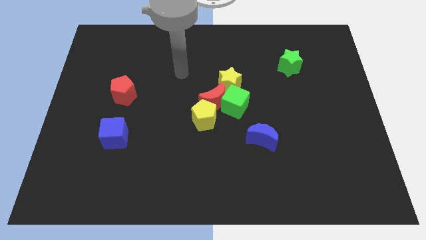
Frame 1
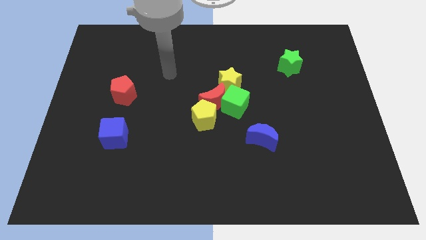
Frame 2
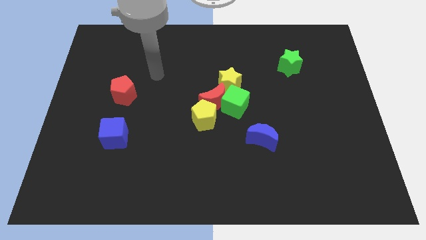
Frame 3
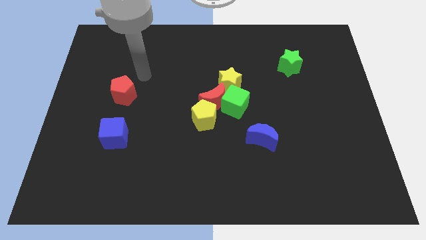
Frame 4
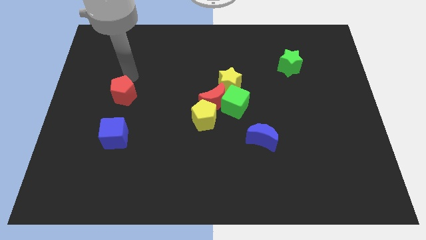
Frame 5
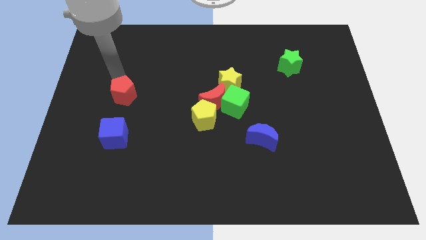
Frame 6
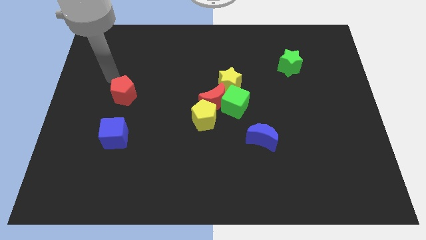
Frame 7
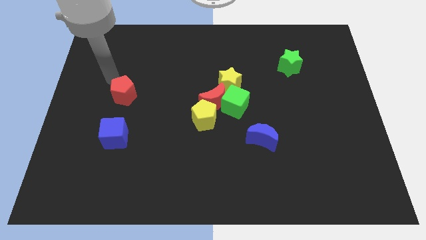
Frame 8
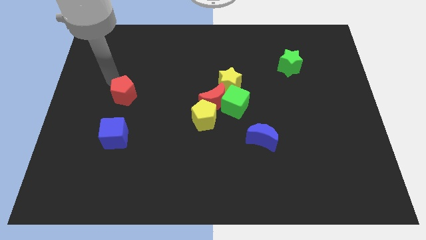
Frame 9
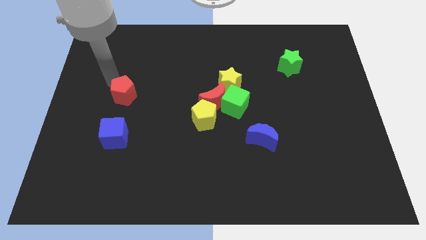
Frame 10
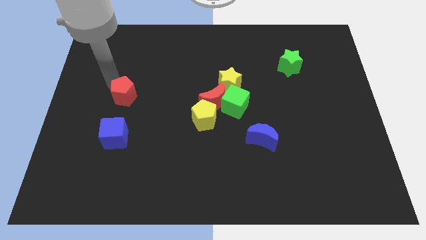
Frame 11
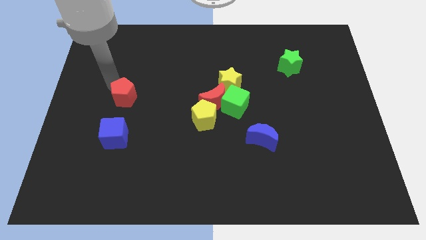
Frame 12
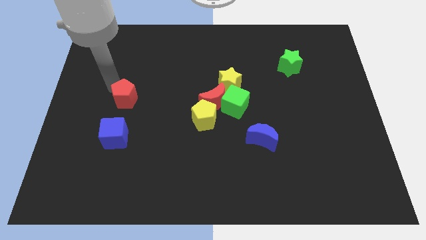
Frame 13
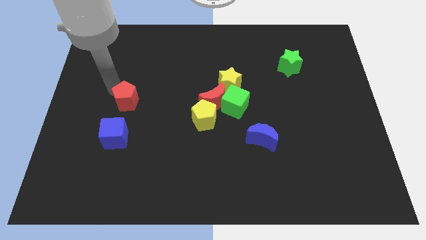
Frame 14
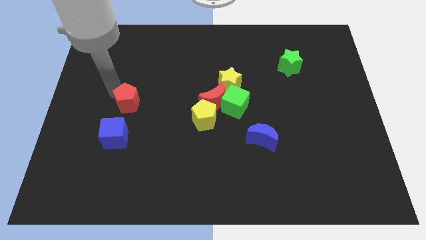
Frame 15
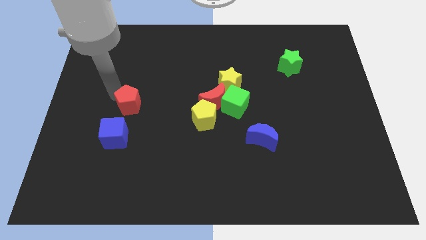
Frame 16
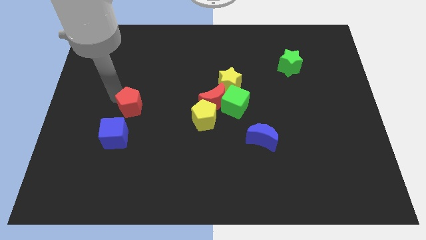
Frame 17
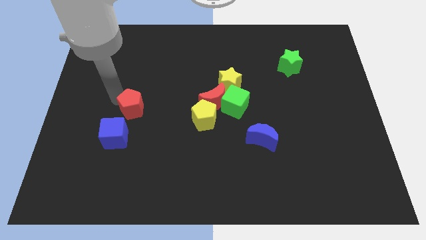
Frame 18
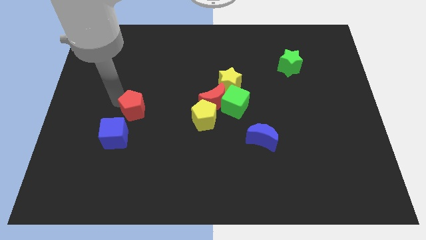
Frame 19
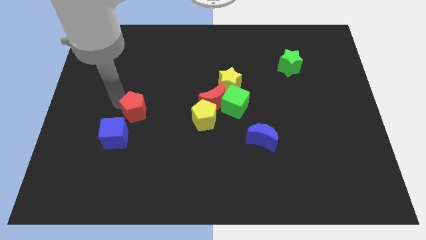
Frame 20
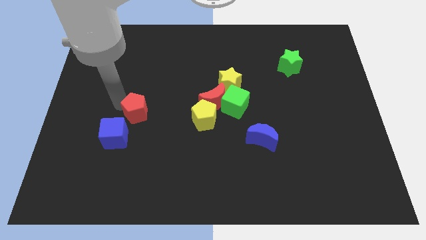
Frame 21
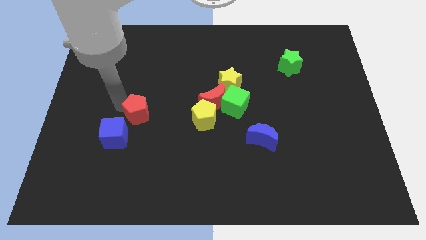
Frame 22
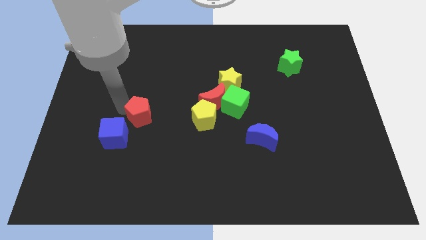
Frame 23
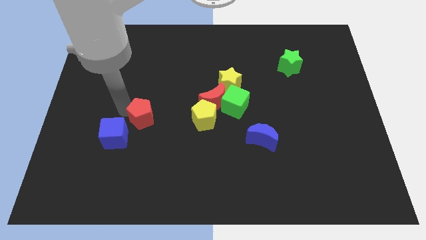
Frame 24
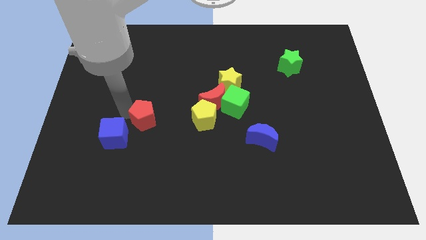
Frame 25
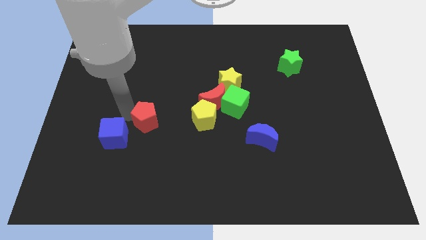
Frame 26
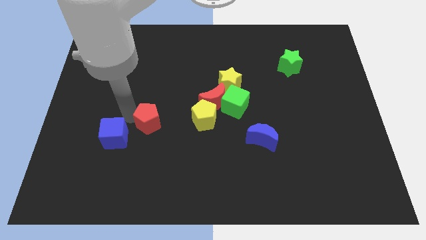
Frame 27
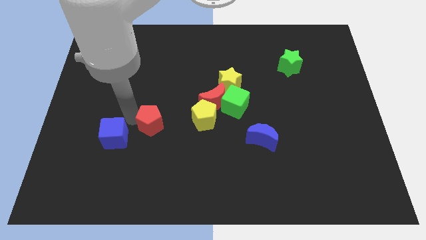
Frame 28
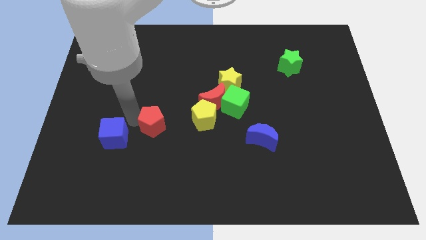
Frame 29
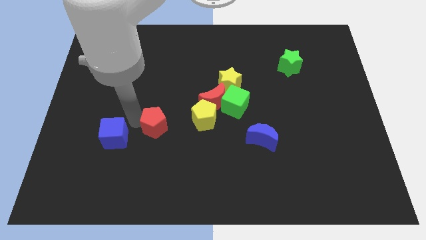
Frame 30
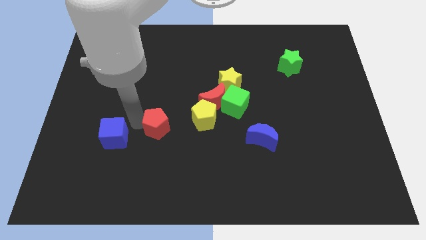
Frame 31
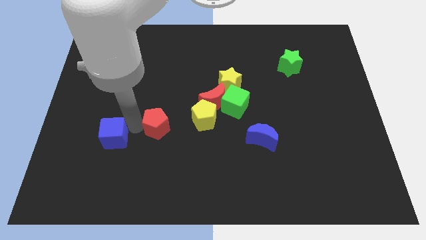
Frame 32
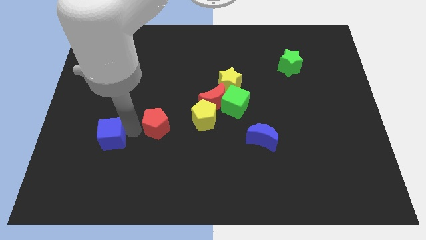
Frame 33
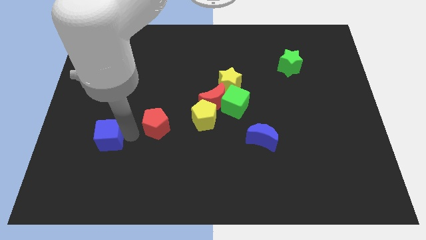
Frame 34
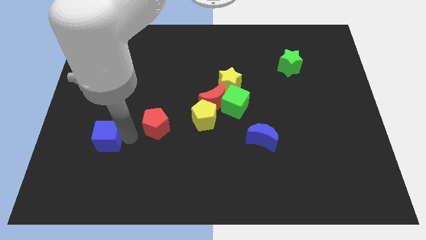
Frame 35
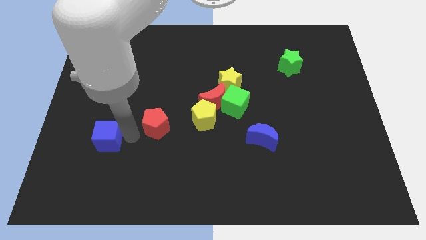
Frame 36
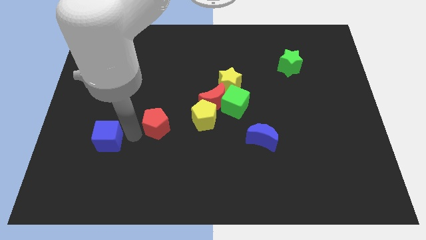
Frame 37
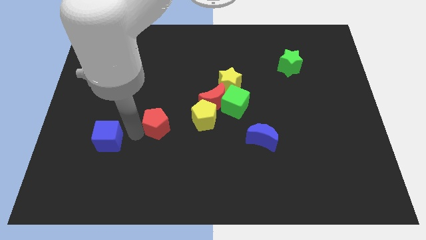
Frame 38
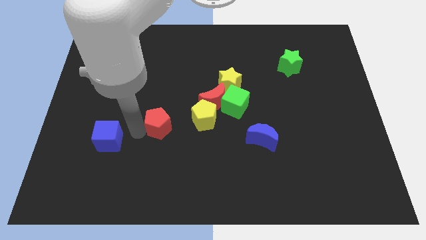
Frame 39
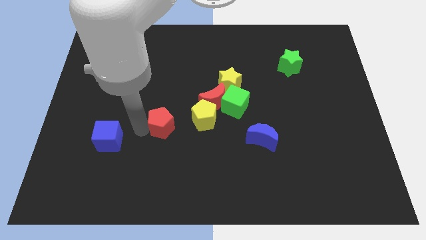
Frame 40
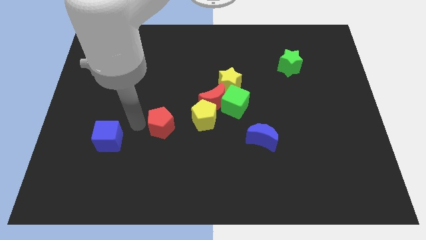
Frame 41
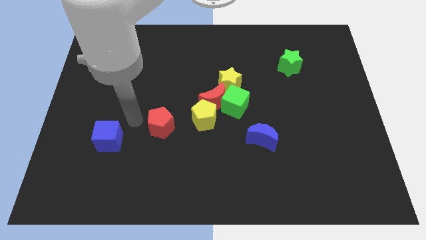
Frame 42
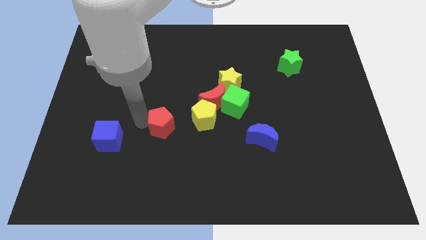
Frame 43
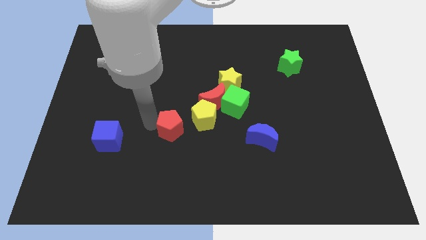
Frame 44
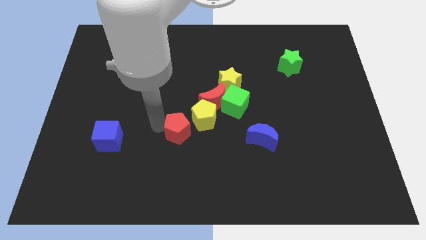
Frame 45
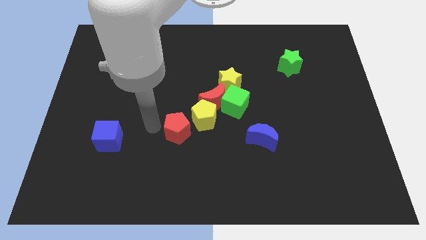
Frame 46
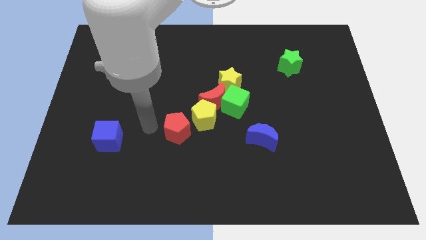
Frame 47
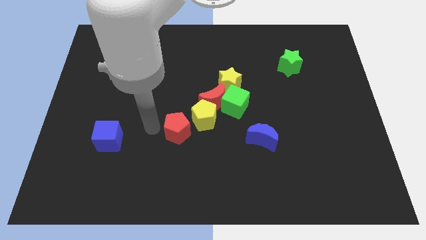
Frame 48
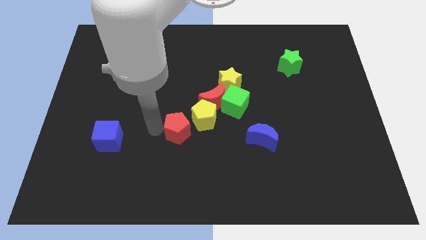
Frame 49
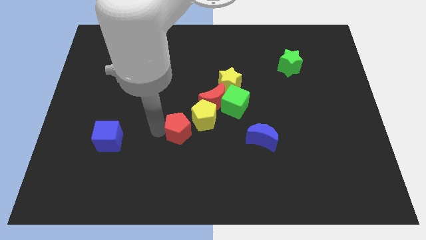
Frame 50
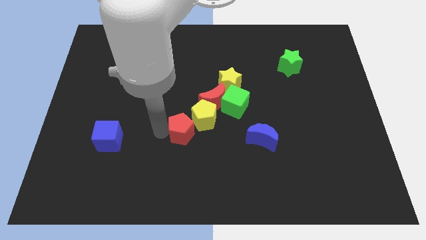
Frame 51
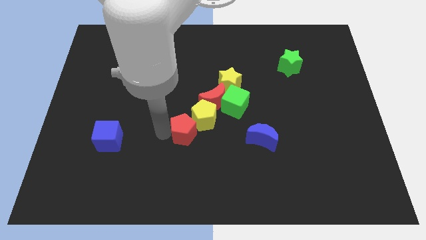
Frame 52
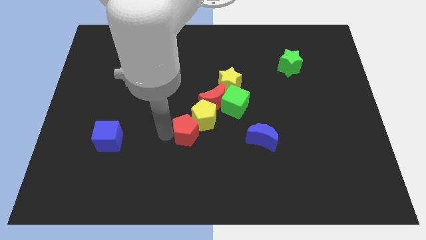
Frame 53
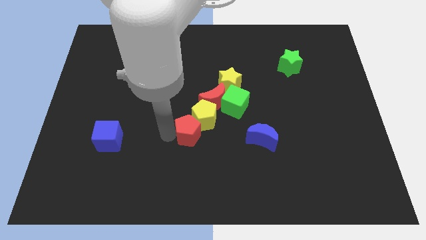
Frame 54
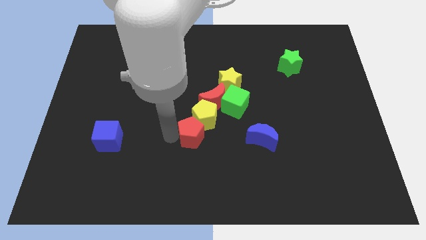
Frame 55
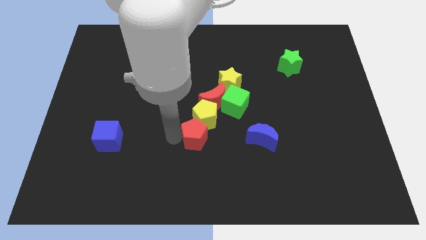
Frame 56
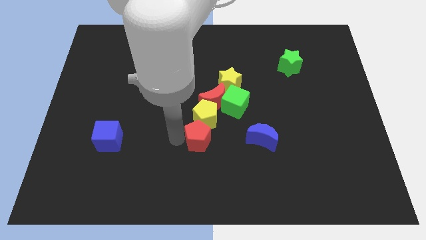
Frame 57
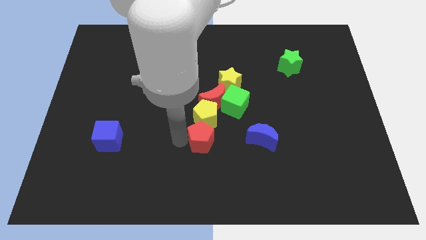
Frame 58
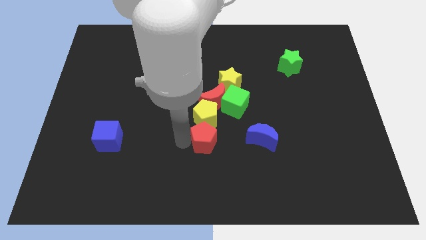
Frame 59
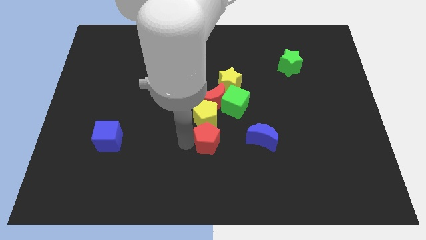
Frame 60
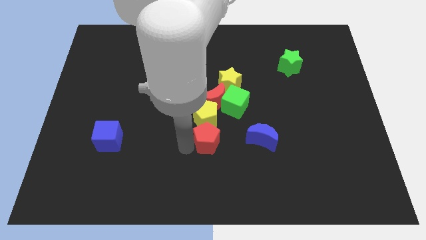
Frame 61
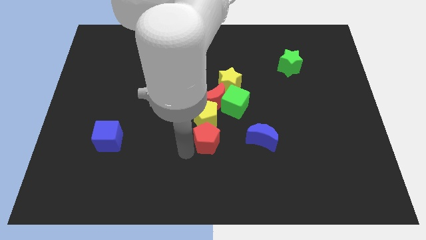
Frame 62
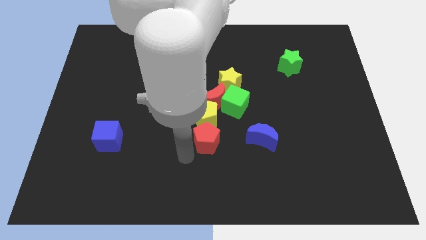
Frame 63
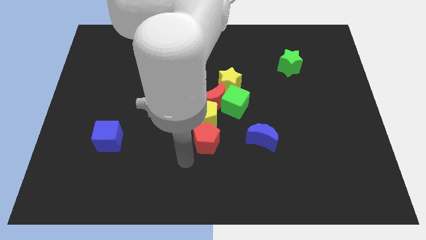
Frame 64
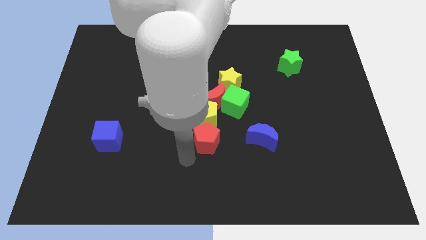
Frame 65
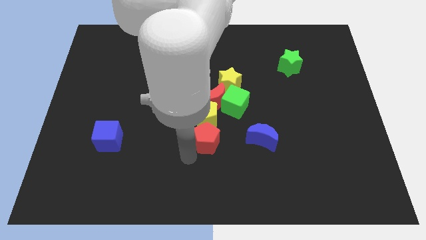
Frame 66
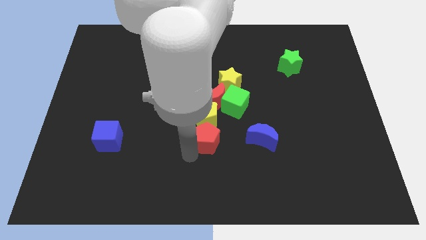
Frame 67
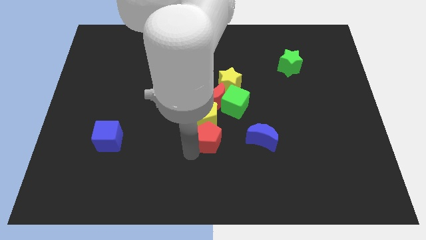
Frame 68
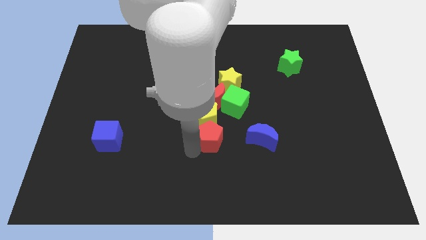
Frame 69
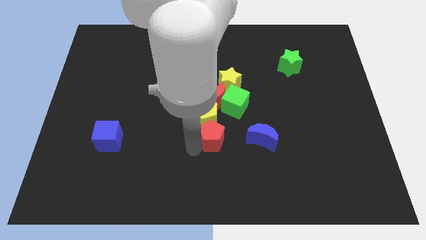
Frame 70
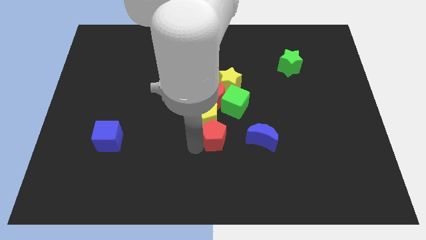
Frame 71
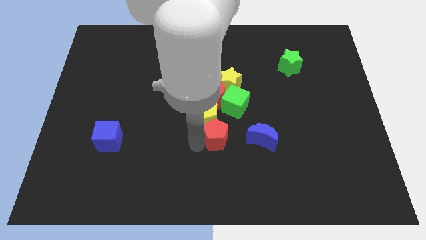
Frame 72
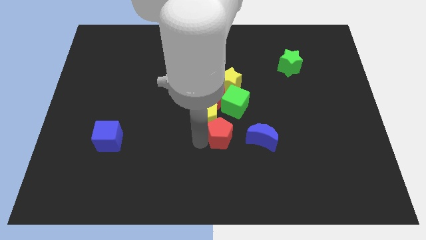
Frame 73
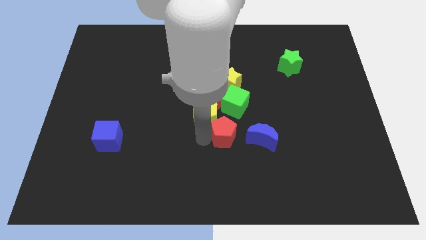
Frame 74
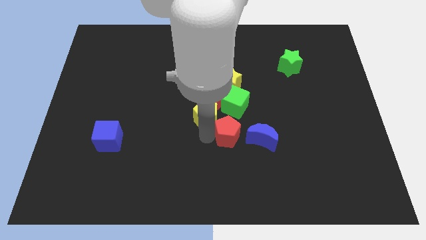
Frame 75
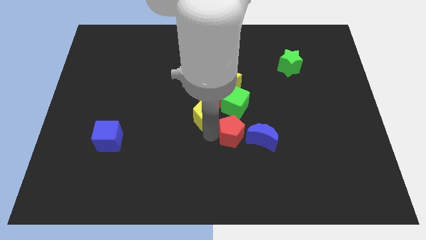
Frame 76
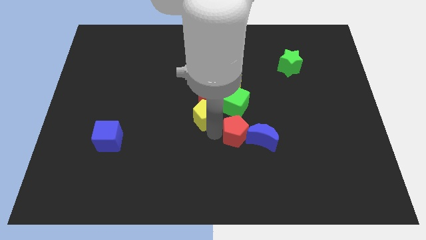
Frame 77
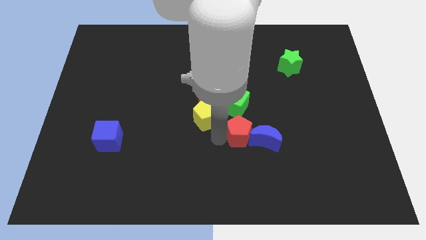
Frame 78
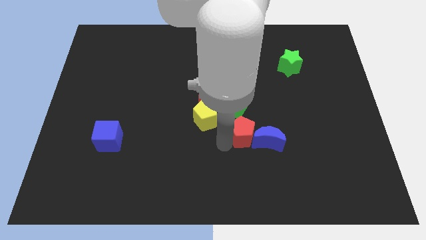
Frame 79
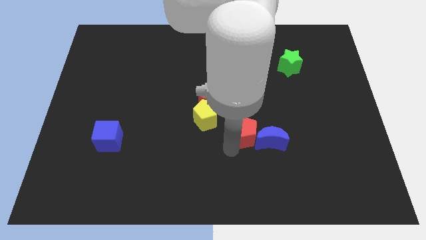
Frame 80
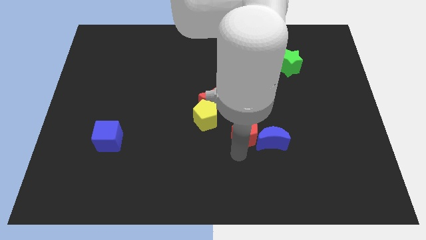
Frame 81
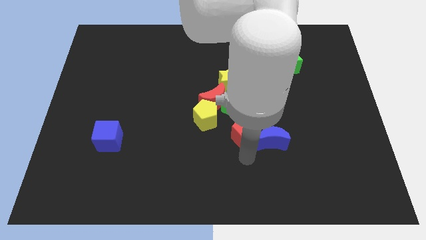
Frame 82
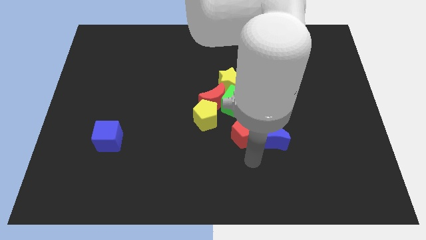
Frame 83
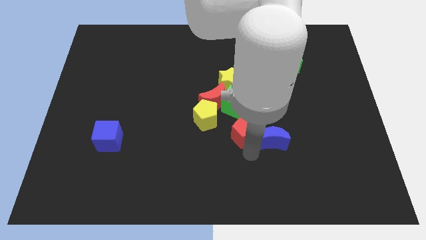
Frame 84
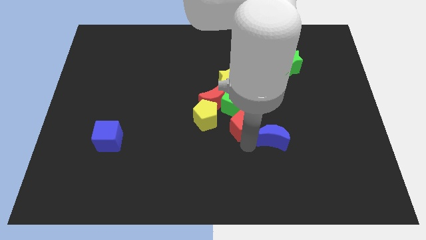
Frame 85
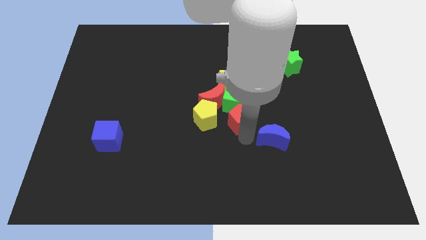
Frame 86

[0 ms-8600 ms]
slide the red pentagon next to the green cube
